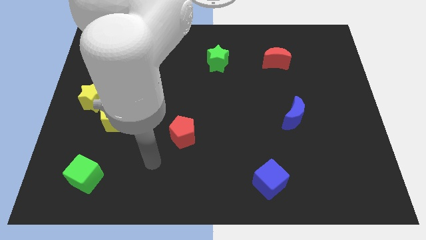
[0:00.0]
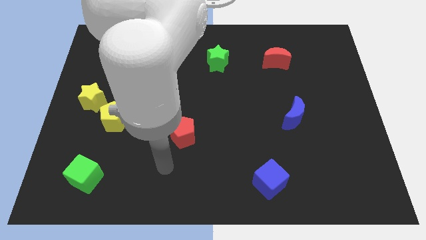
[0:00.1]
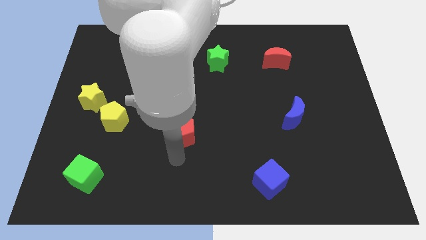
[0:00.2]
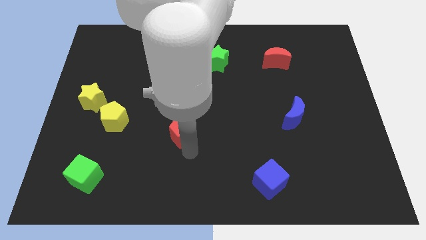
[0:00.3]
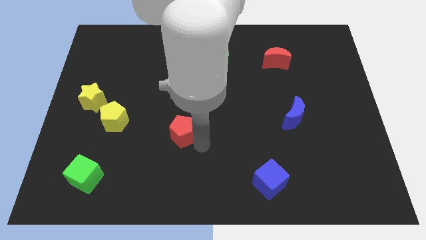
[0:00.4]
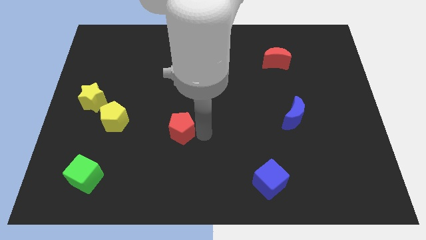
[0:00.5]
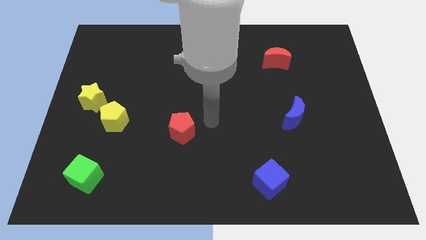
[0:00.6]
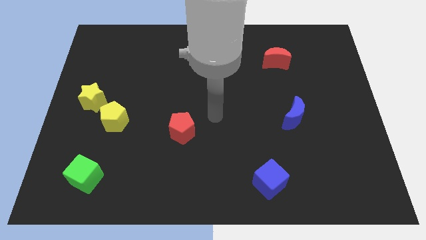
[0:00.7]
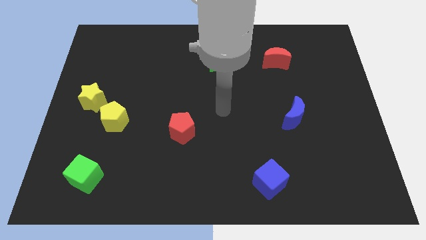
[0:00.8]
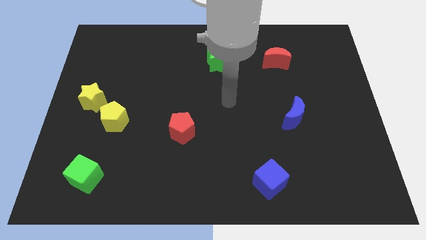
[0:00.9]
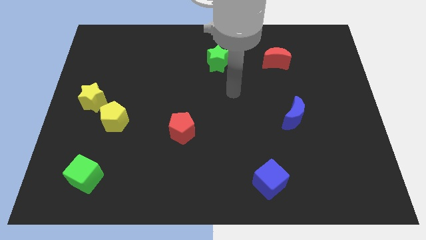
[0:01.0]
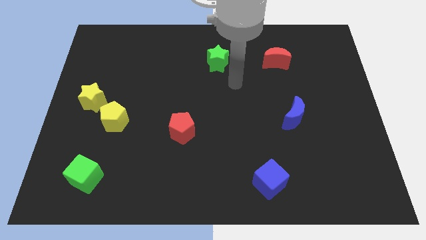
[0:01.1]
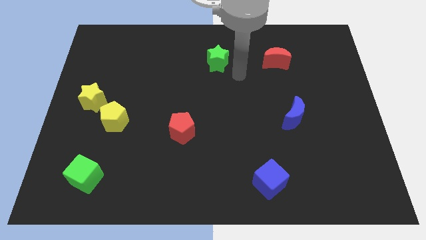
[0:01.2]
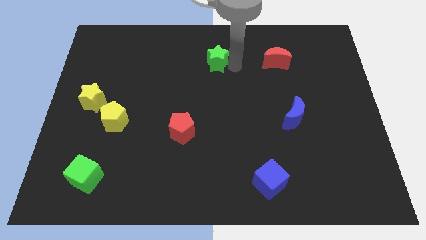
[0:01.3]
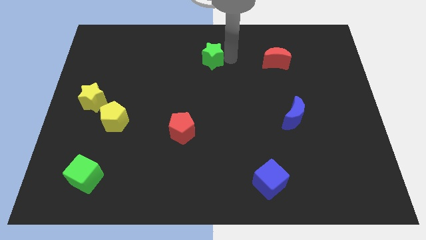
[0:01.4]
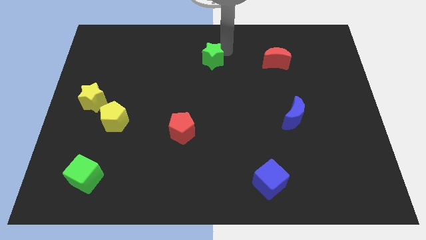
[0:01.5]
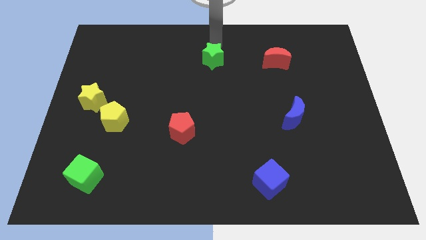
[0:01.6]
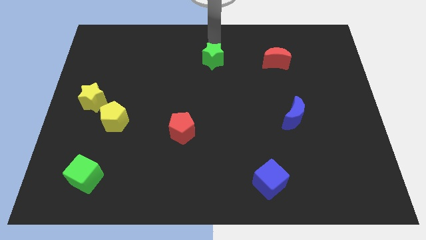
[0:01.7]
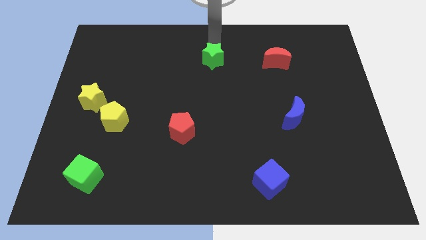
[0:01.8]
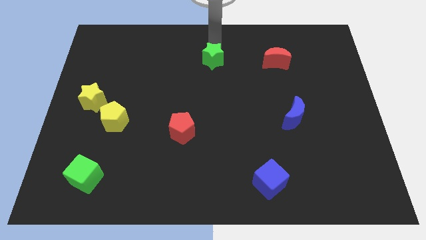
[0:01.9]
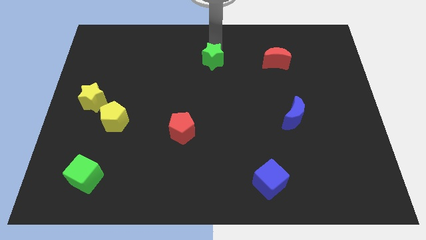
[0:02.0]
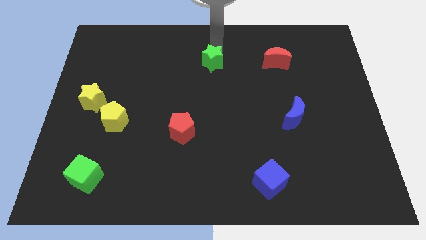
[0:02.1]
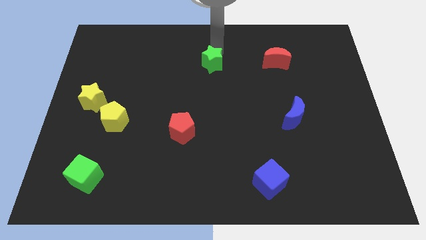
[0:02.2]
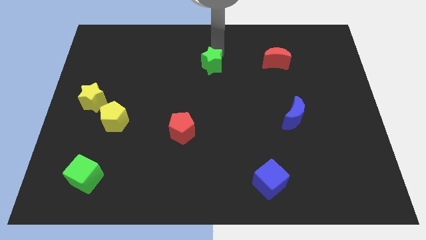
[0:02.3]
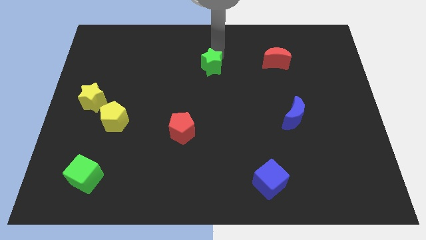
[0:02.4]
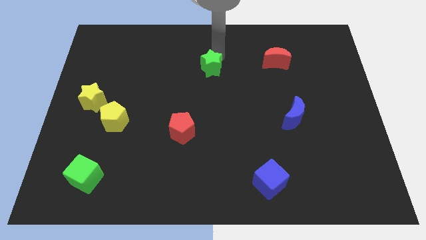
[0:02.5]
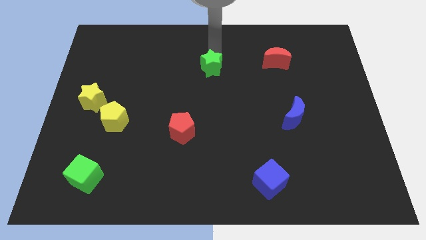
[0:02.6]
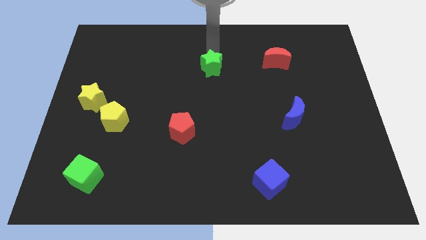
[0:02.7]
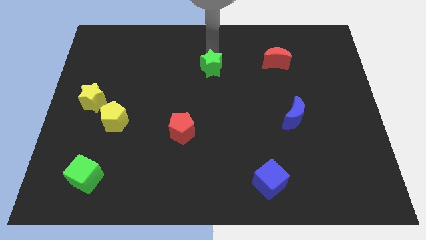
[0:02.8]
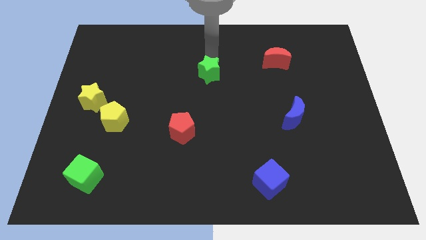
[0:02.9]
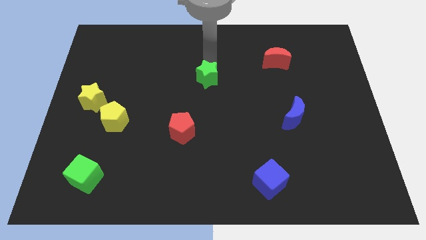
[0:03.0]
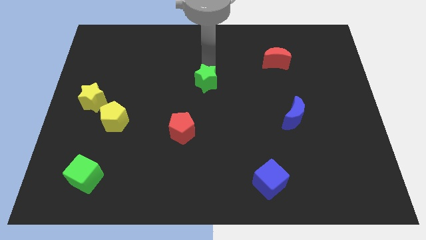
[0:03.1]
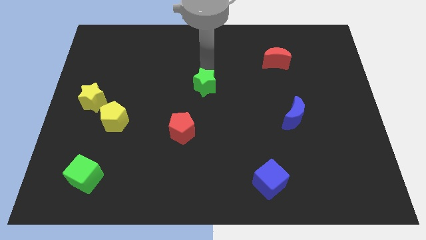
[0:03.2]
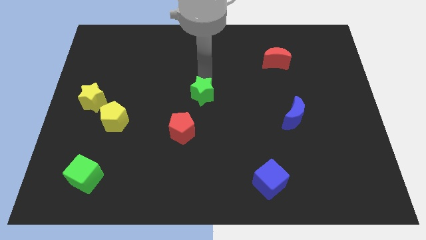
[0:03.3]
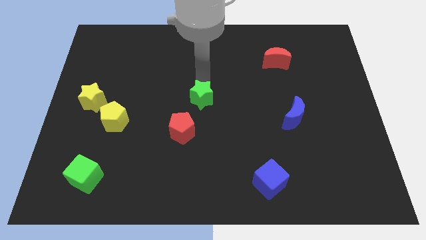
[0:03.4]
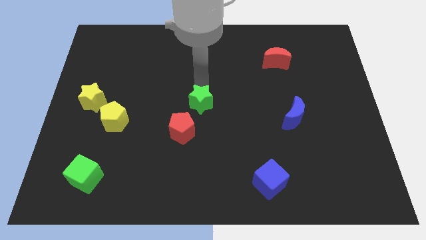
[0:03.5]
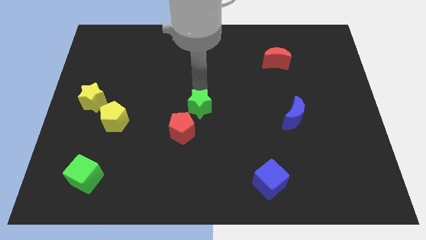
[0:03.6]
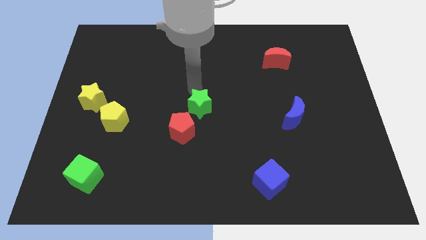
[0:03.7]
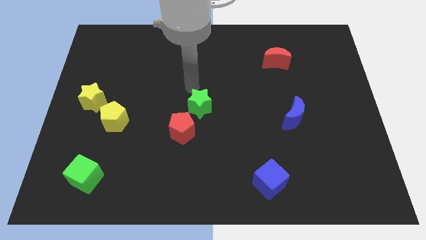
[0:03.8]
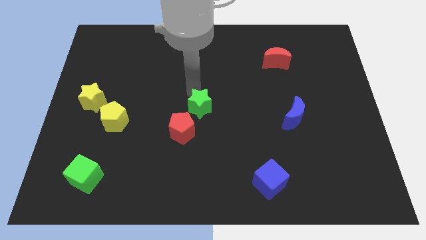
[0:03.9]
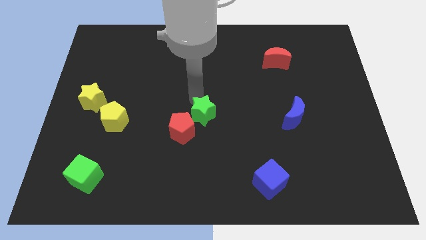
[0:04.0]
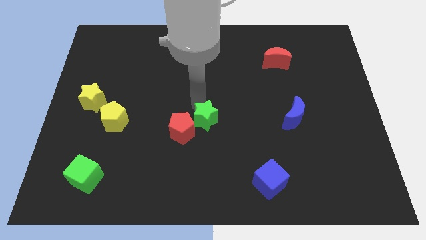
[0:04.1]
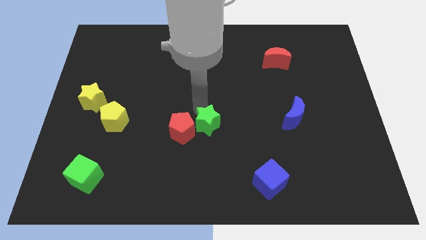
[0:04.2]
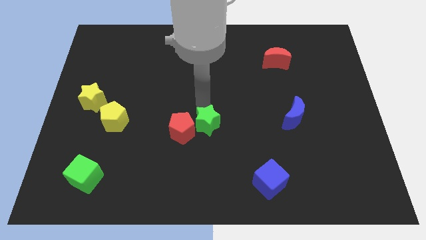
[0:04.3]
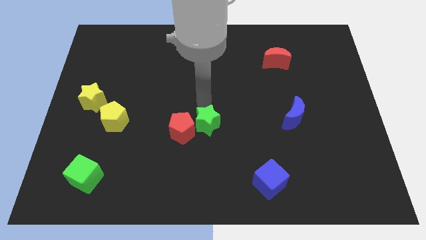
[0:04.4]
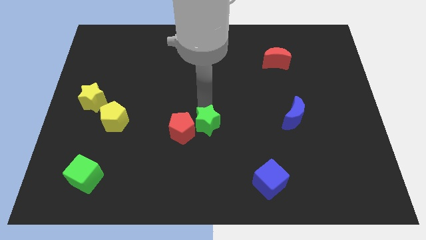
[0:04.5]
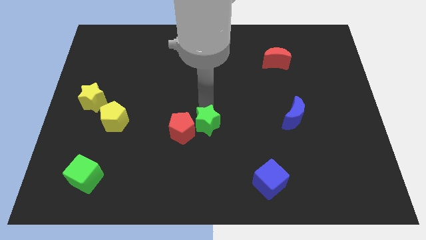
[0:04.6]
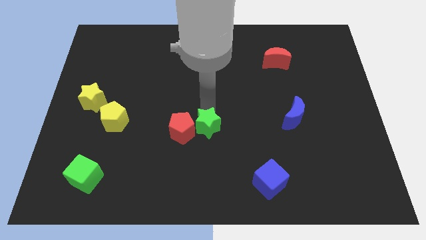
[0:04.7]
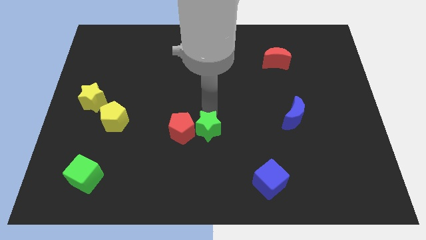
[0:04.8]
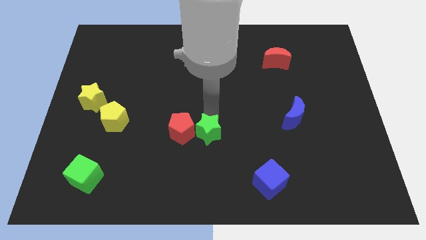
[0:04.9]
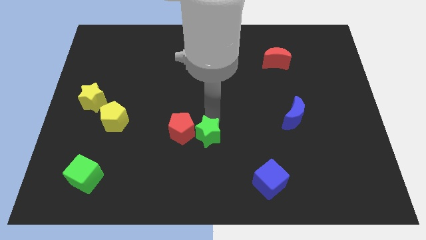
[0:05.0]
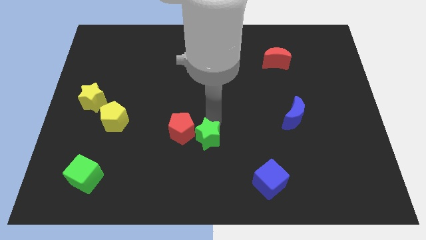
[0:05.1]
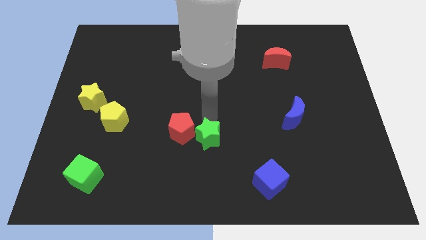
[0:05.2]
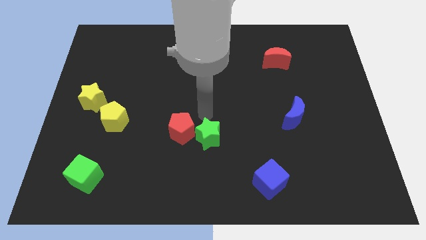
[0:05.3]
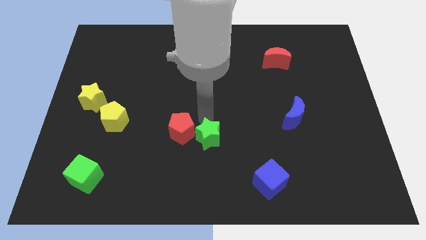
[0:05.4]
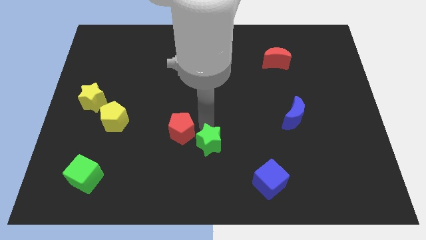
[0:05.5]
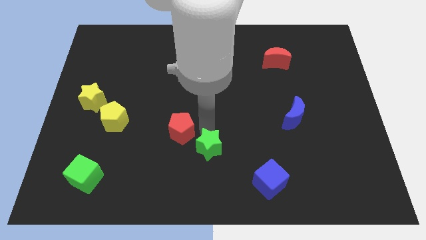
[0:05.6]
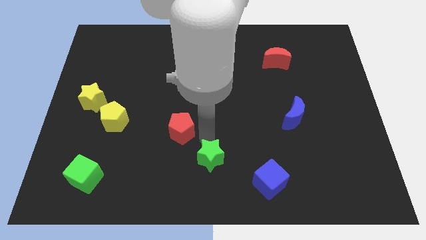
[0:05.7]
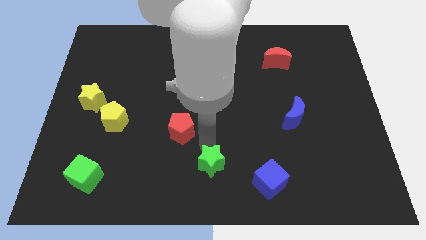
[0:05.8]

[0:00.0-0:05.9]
put the green star left of the blue cube

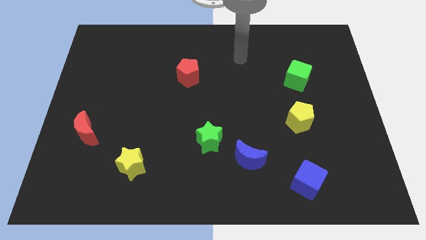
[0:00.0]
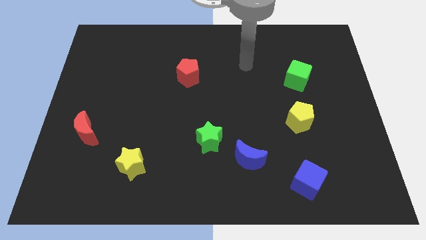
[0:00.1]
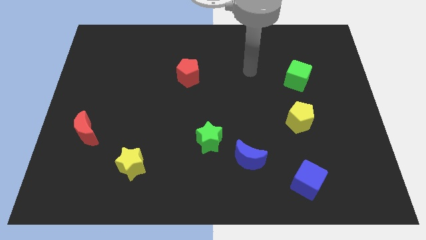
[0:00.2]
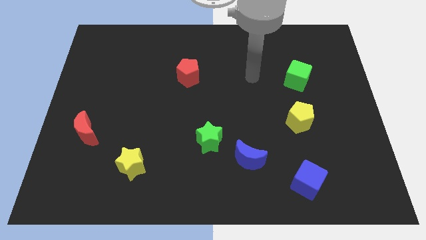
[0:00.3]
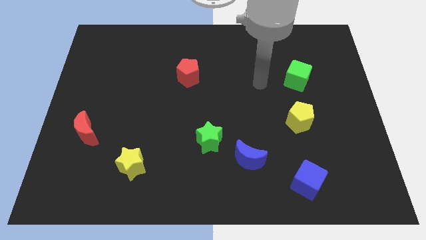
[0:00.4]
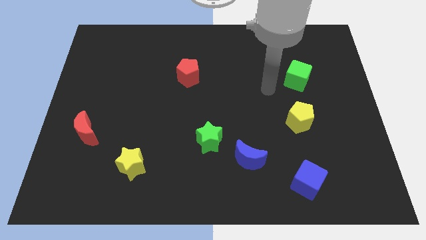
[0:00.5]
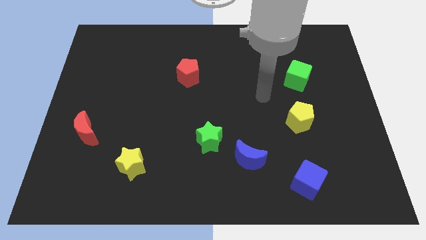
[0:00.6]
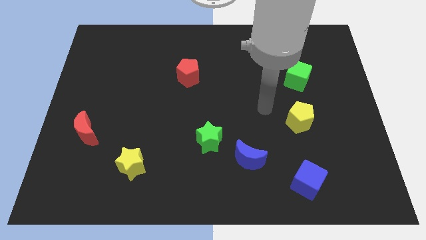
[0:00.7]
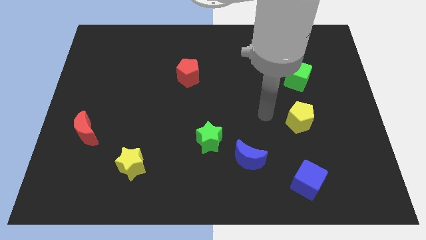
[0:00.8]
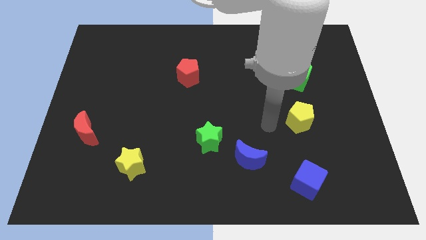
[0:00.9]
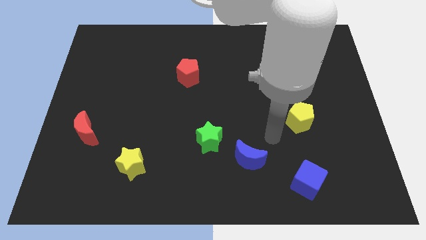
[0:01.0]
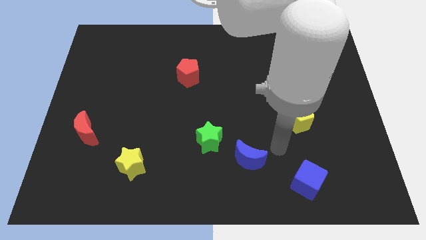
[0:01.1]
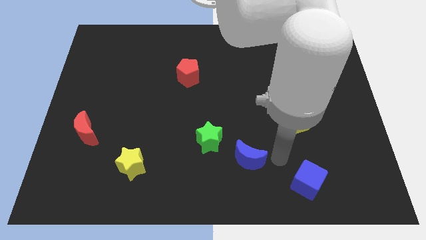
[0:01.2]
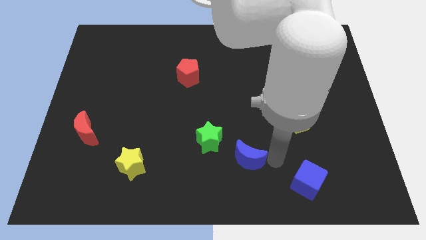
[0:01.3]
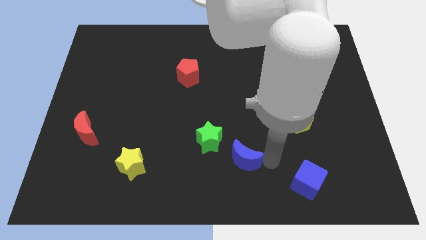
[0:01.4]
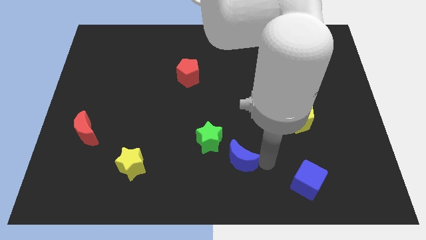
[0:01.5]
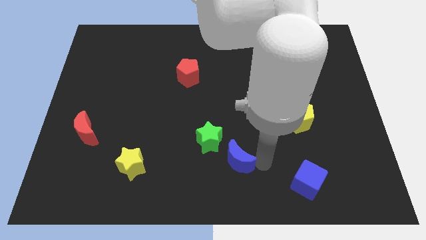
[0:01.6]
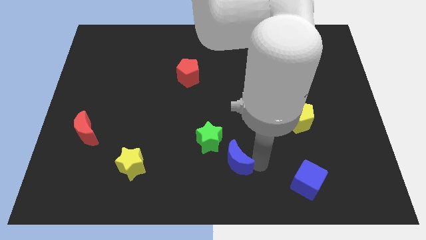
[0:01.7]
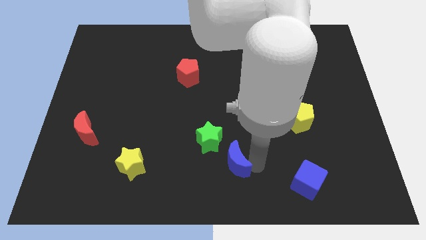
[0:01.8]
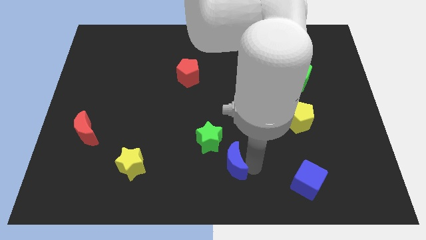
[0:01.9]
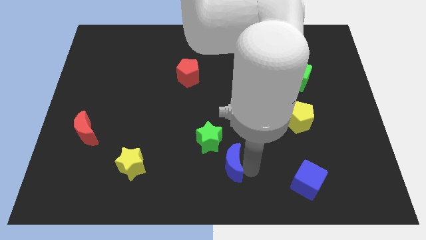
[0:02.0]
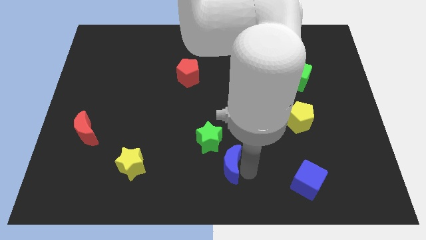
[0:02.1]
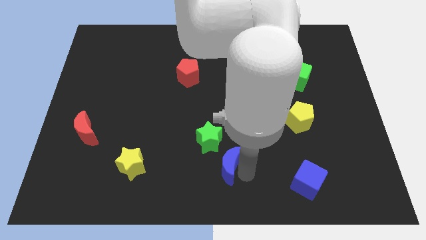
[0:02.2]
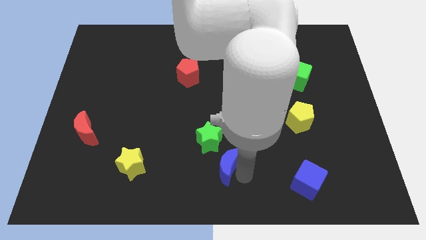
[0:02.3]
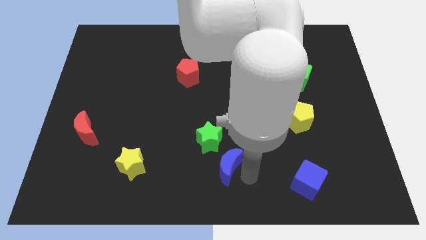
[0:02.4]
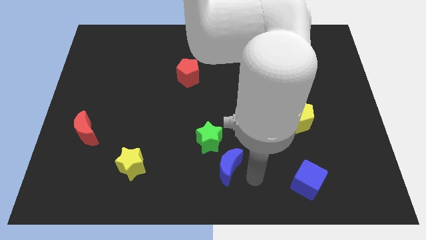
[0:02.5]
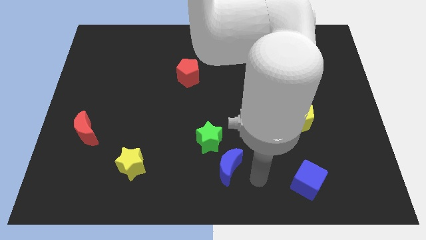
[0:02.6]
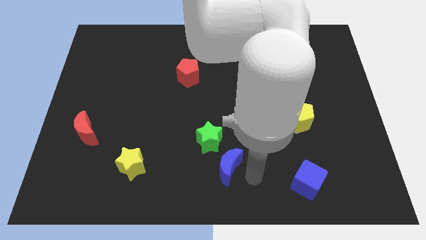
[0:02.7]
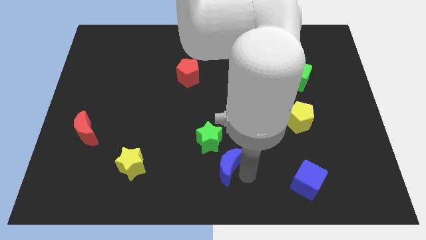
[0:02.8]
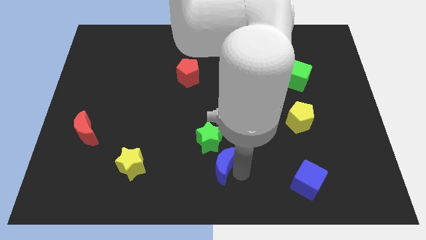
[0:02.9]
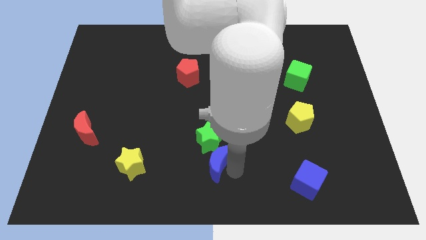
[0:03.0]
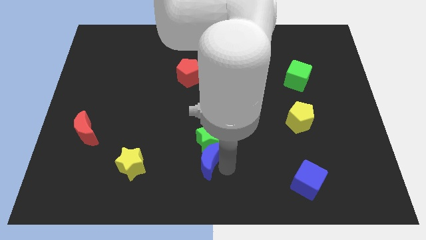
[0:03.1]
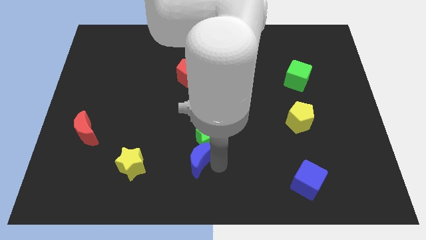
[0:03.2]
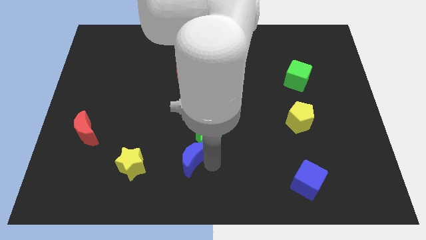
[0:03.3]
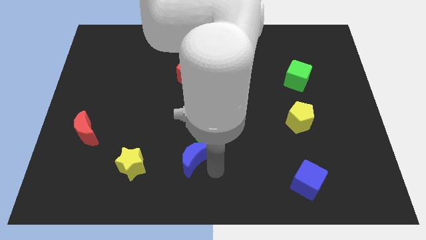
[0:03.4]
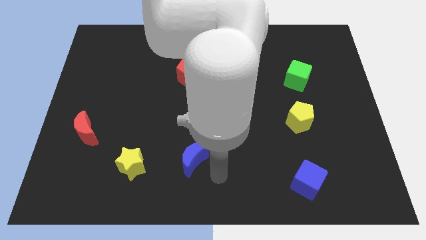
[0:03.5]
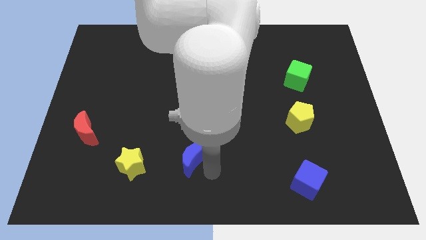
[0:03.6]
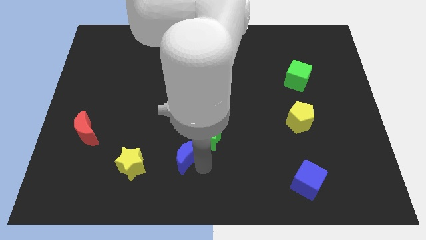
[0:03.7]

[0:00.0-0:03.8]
slide the blue moon left of the green star
